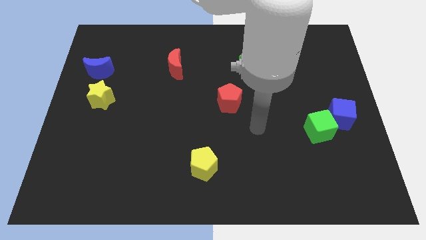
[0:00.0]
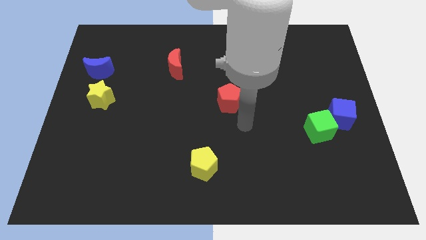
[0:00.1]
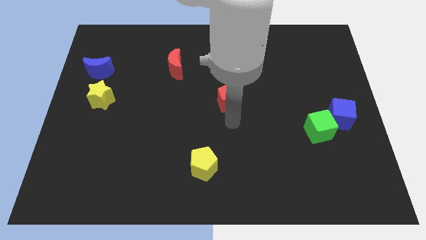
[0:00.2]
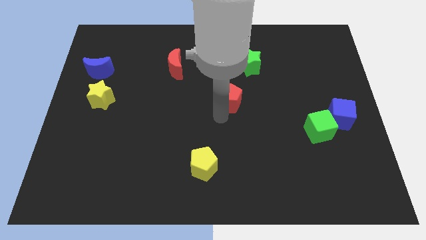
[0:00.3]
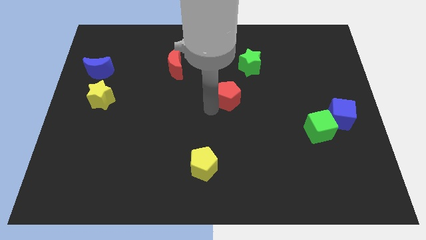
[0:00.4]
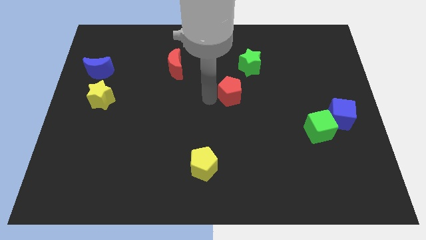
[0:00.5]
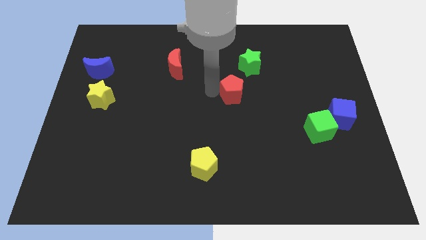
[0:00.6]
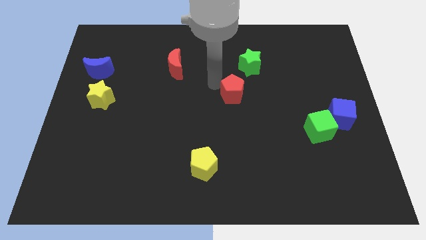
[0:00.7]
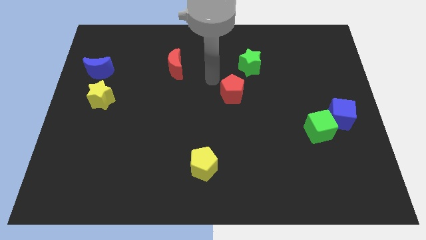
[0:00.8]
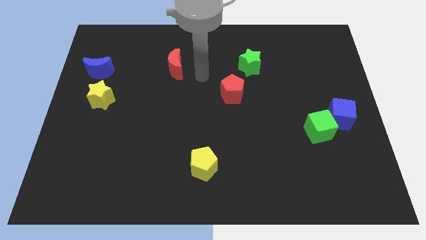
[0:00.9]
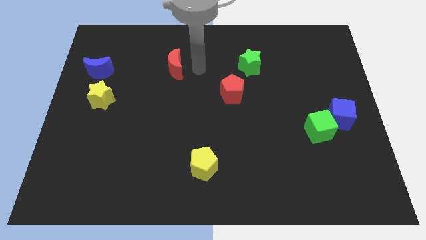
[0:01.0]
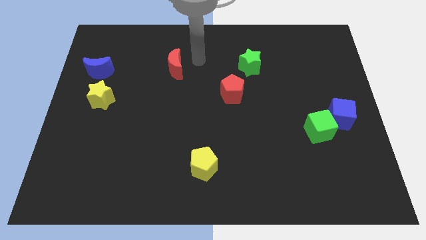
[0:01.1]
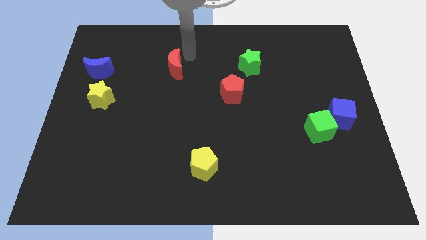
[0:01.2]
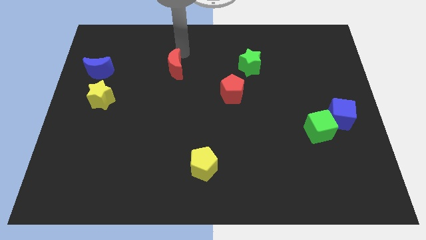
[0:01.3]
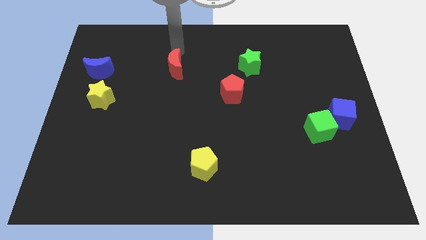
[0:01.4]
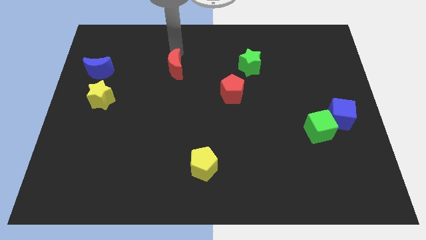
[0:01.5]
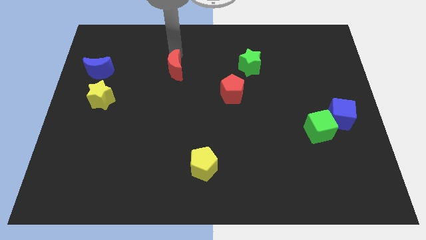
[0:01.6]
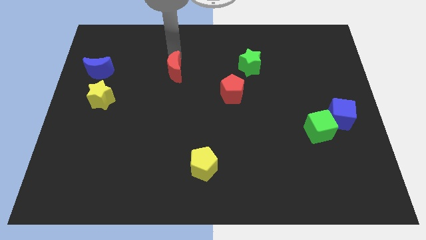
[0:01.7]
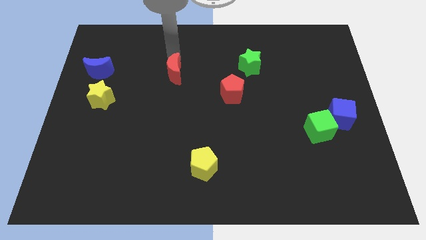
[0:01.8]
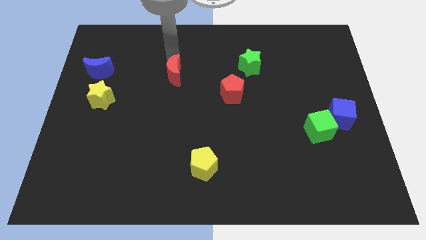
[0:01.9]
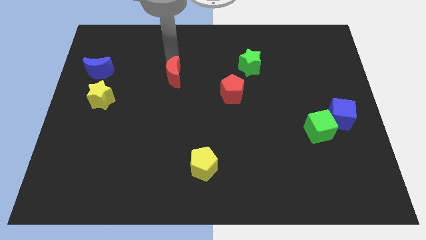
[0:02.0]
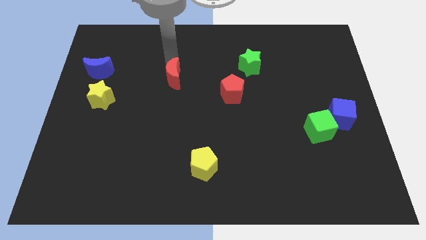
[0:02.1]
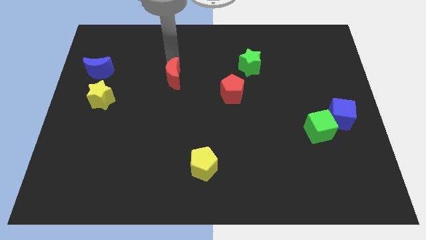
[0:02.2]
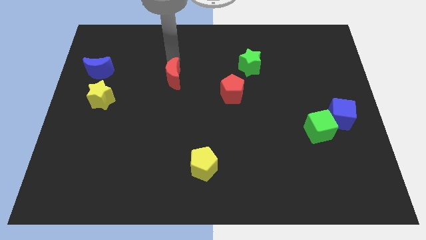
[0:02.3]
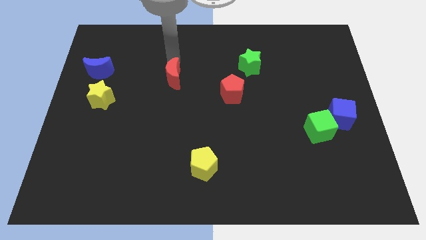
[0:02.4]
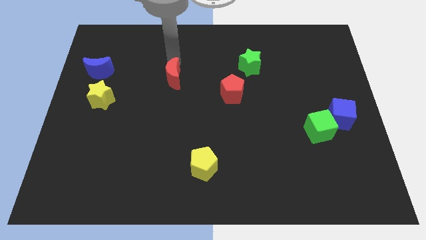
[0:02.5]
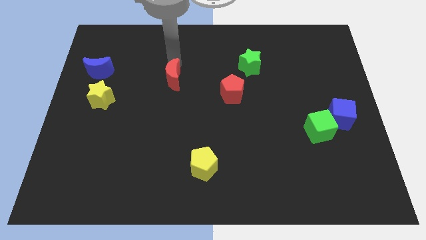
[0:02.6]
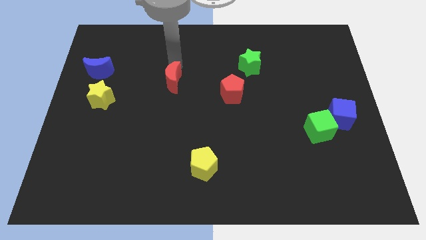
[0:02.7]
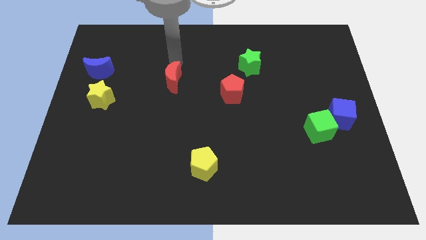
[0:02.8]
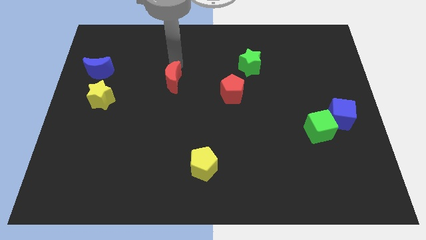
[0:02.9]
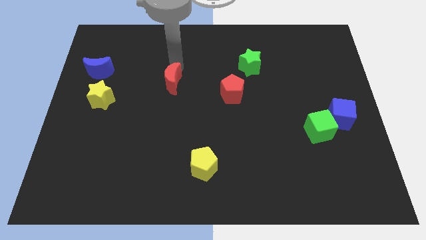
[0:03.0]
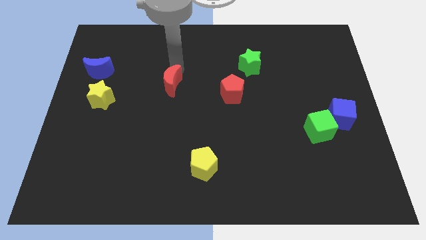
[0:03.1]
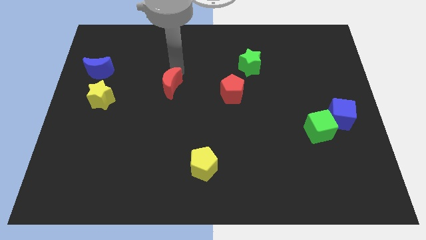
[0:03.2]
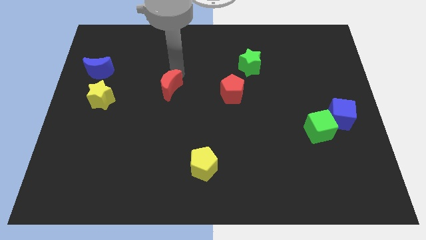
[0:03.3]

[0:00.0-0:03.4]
move the red moon downwards a little

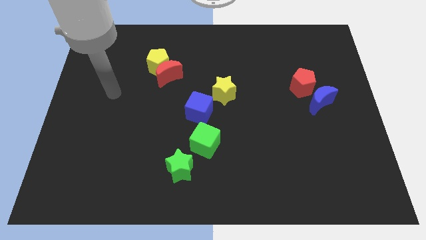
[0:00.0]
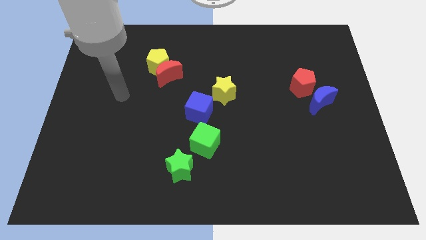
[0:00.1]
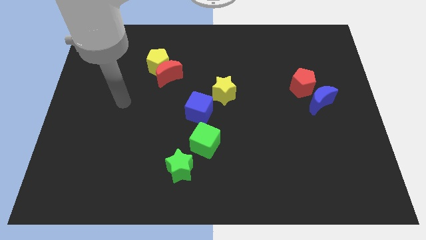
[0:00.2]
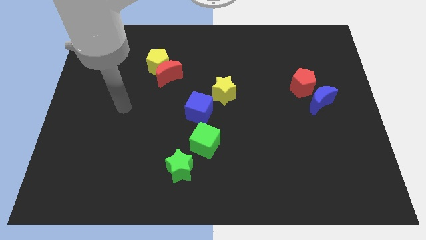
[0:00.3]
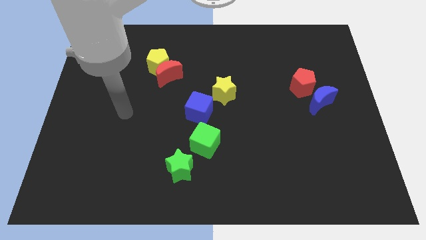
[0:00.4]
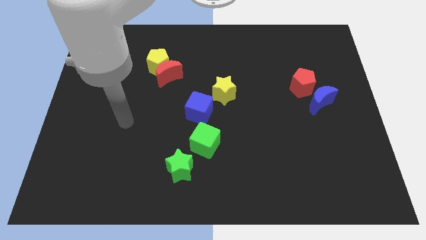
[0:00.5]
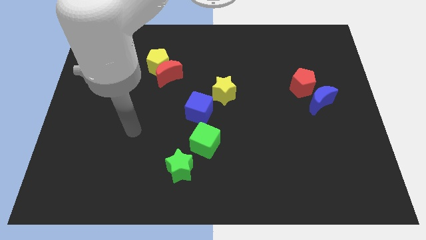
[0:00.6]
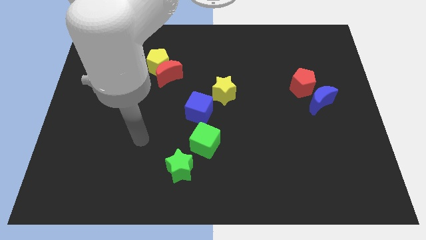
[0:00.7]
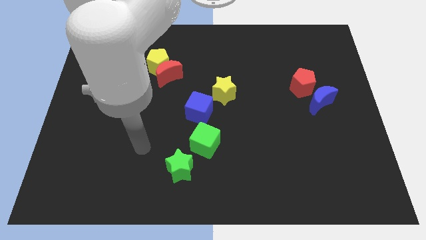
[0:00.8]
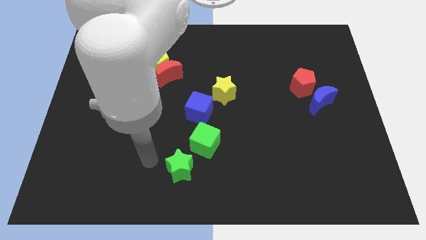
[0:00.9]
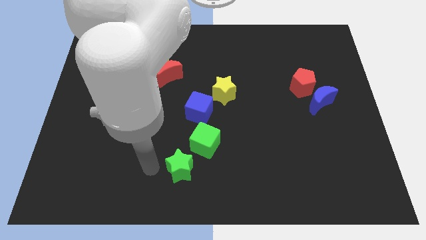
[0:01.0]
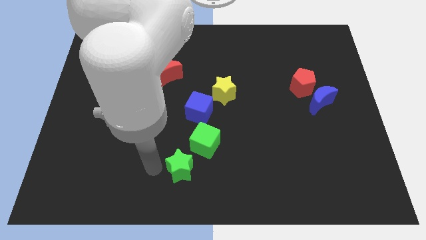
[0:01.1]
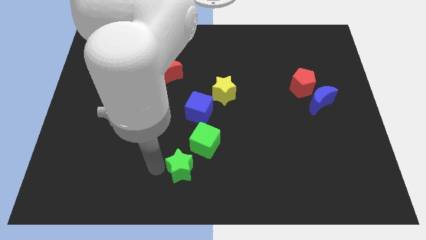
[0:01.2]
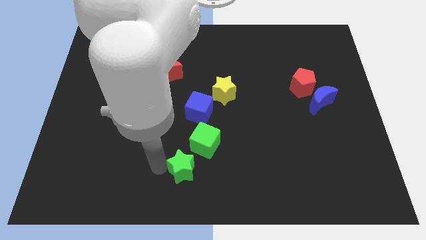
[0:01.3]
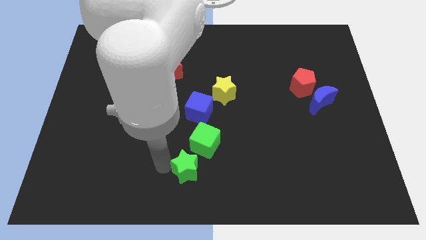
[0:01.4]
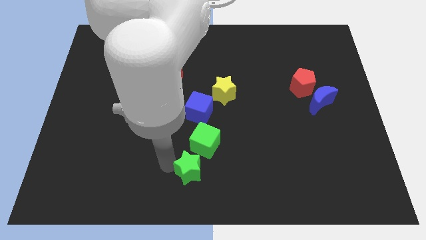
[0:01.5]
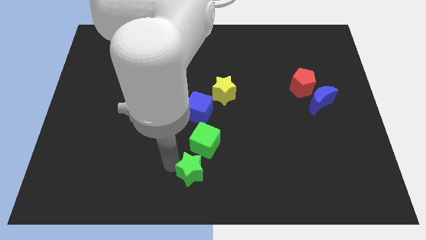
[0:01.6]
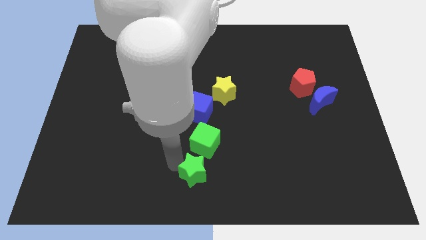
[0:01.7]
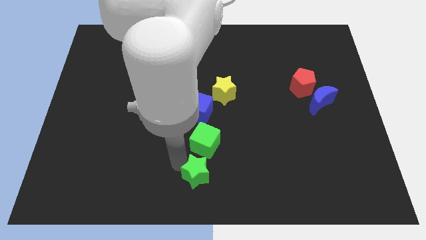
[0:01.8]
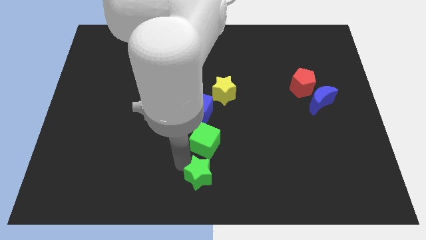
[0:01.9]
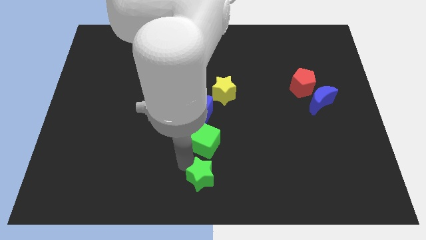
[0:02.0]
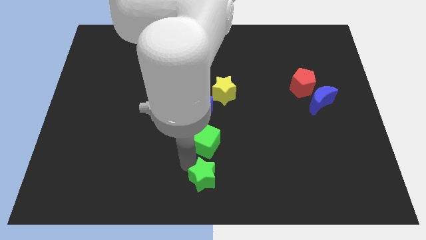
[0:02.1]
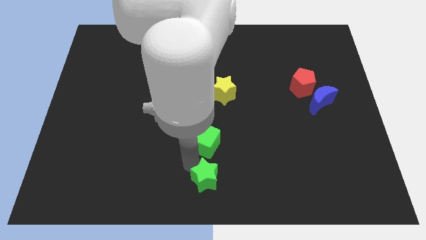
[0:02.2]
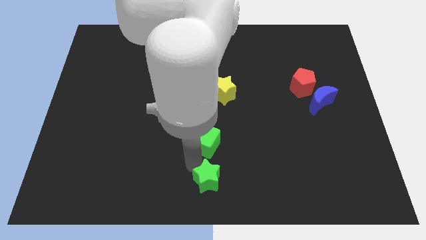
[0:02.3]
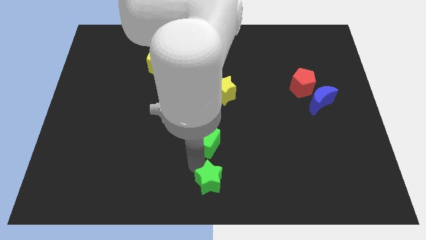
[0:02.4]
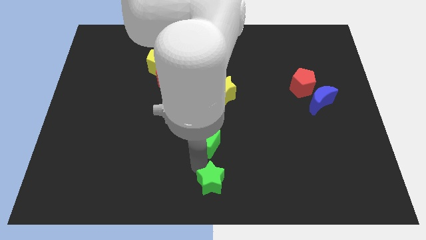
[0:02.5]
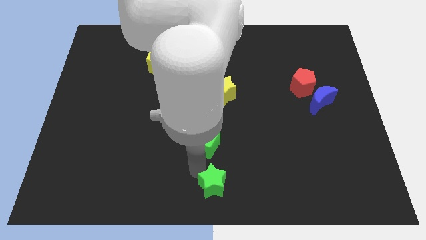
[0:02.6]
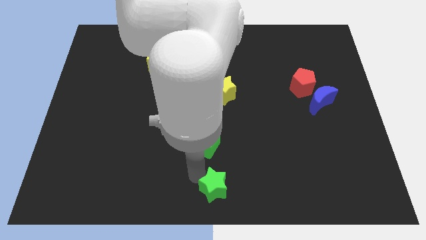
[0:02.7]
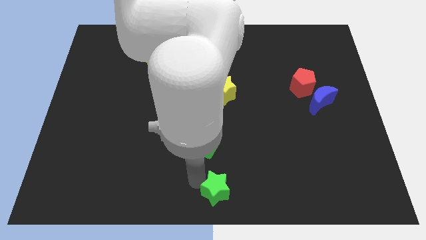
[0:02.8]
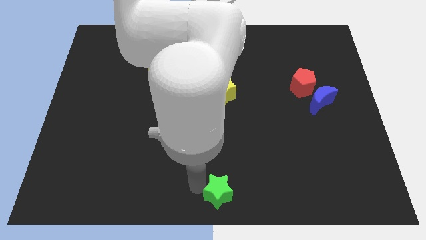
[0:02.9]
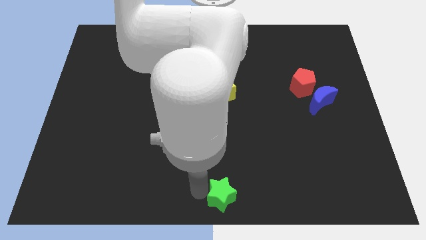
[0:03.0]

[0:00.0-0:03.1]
slightly slide the green star to the right

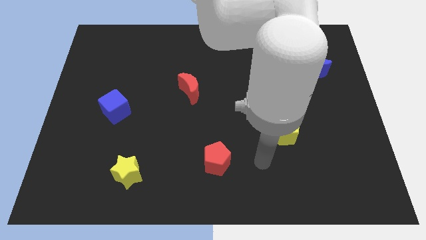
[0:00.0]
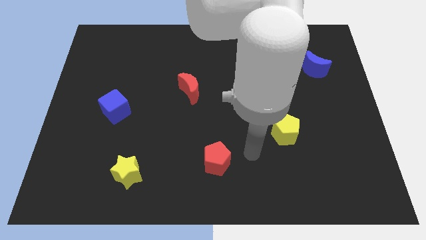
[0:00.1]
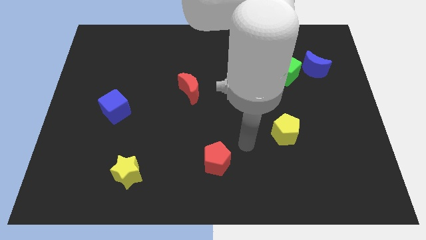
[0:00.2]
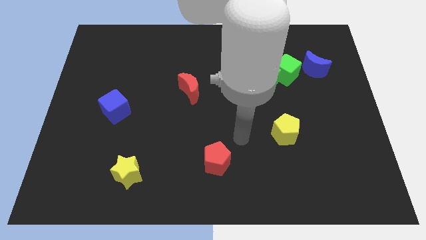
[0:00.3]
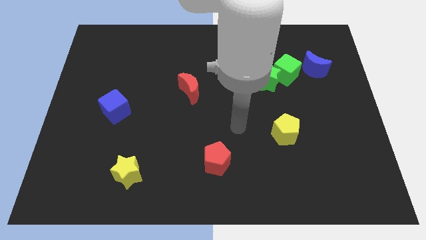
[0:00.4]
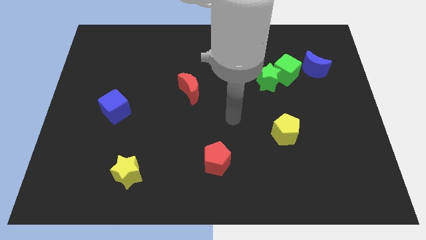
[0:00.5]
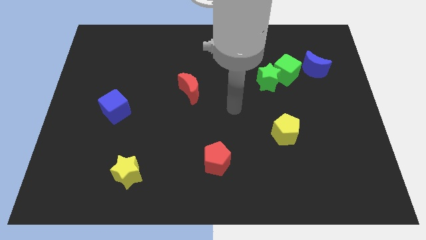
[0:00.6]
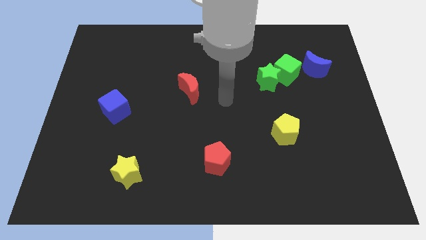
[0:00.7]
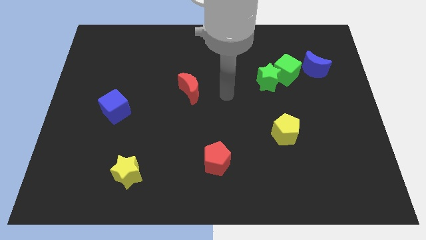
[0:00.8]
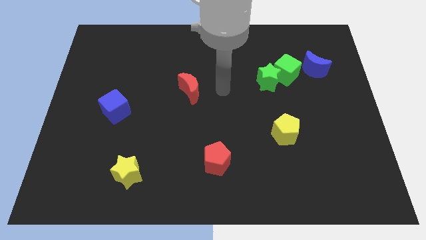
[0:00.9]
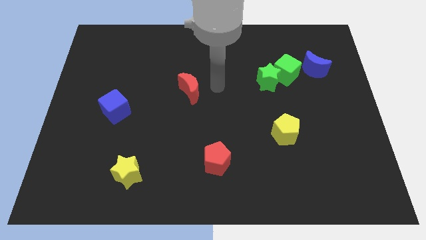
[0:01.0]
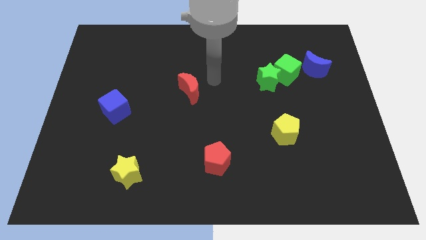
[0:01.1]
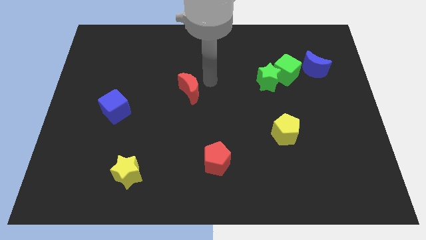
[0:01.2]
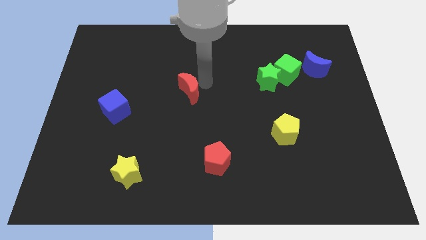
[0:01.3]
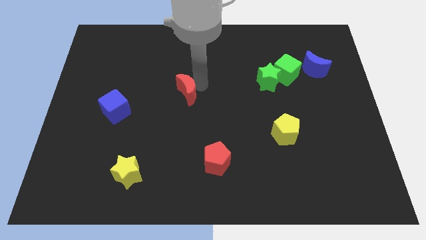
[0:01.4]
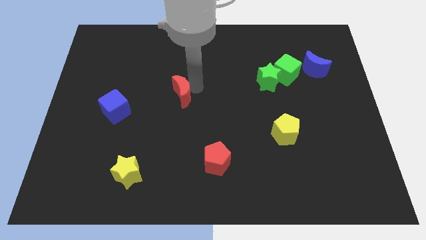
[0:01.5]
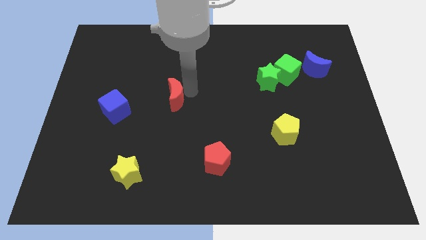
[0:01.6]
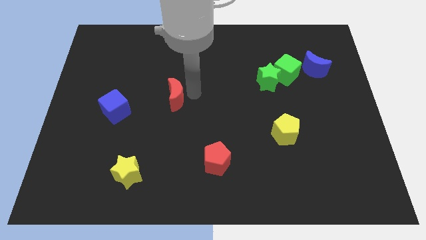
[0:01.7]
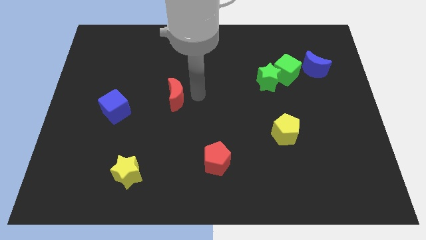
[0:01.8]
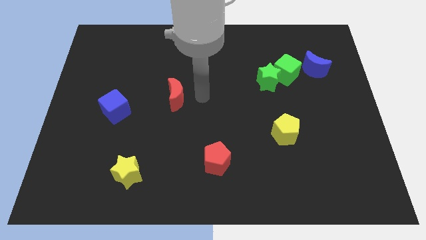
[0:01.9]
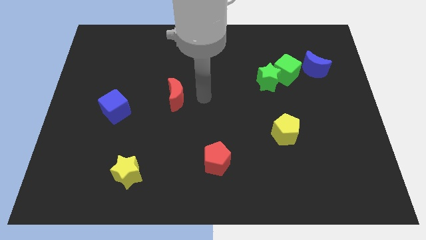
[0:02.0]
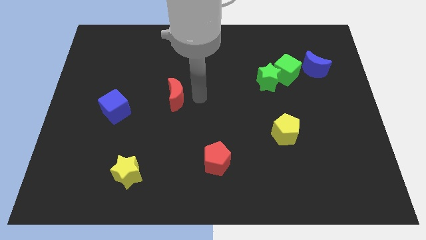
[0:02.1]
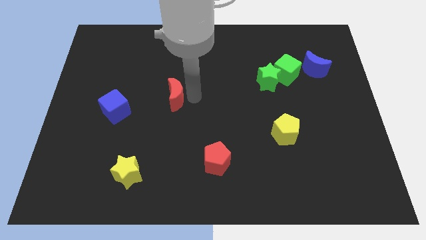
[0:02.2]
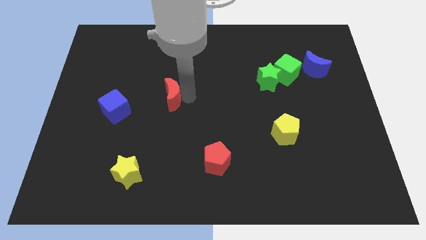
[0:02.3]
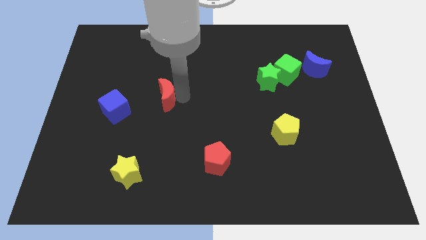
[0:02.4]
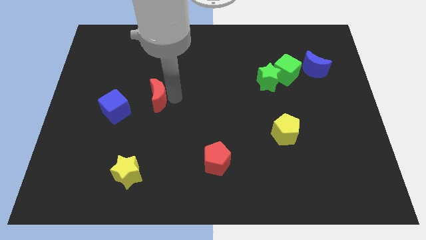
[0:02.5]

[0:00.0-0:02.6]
slide the red moon a bit left
